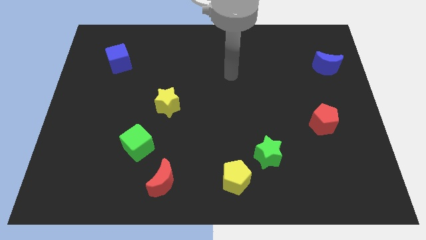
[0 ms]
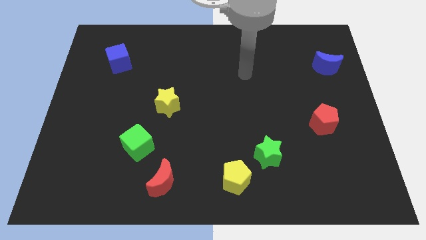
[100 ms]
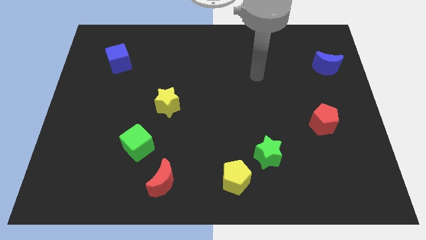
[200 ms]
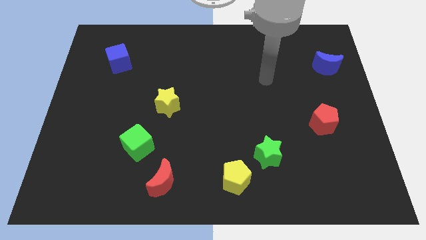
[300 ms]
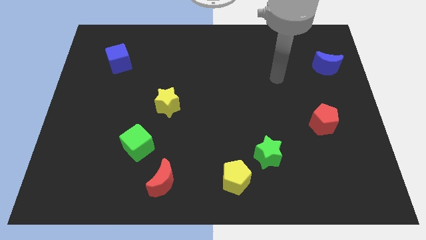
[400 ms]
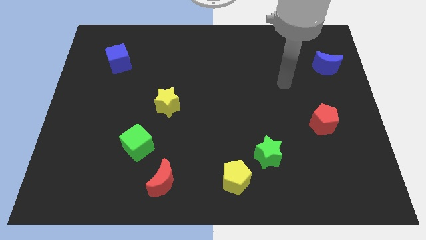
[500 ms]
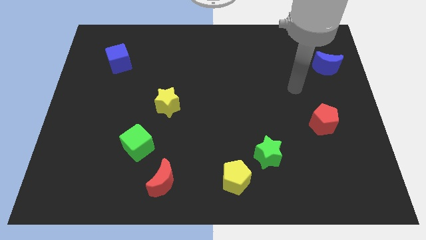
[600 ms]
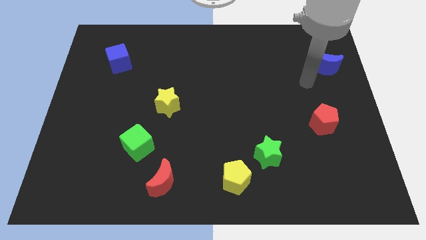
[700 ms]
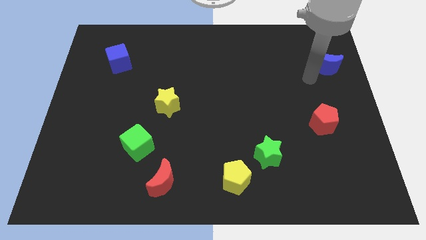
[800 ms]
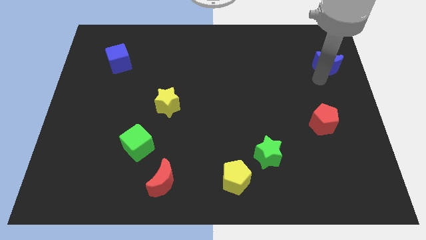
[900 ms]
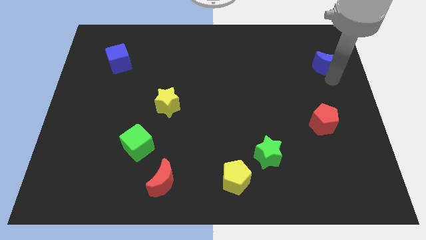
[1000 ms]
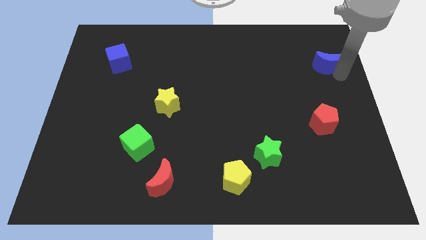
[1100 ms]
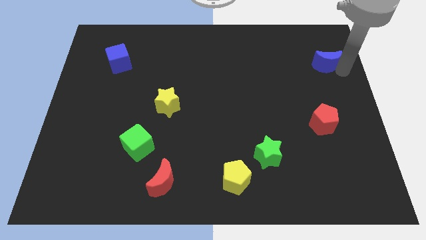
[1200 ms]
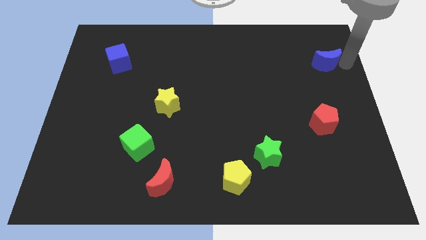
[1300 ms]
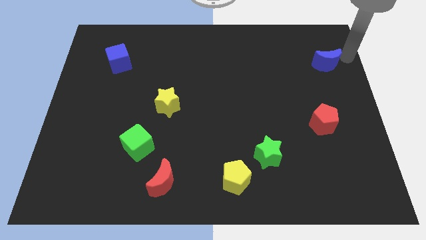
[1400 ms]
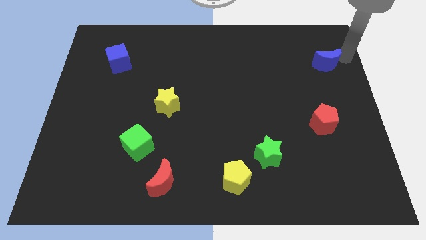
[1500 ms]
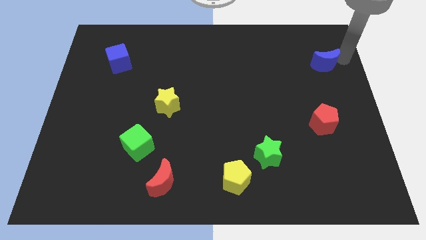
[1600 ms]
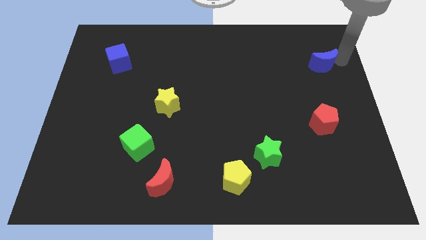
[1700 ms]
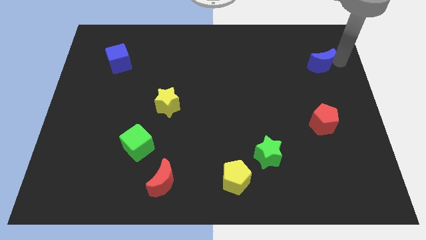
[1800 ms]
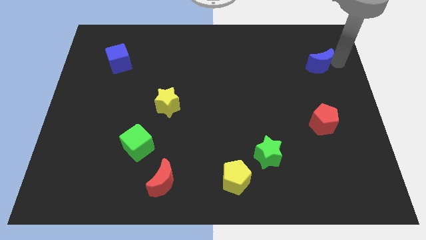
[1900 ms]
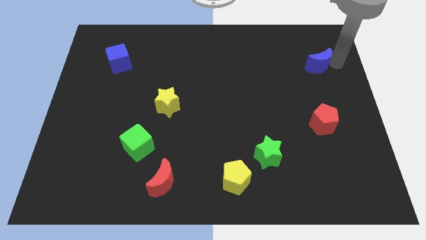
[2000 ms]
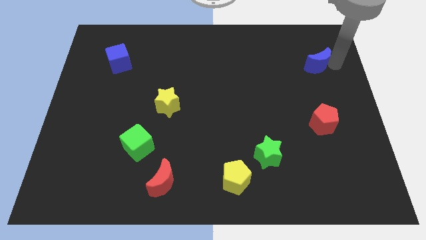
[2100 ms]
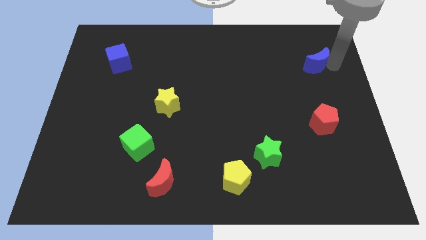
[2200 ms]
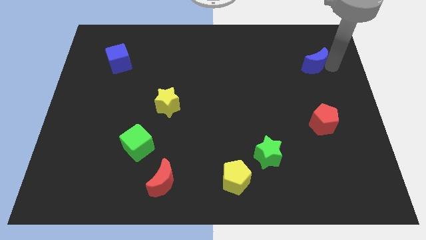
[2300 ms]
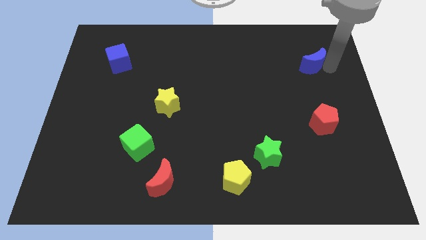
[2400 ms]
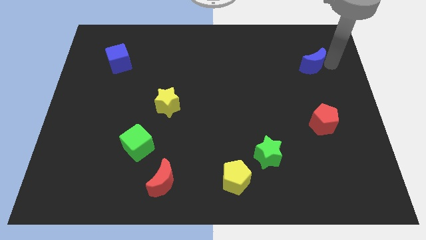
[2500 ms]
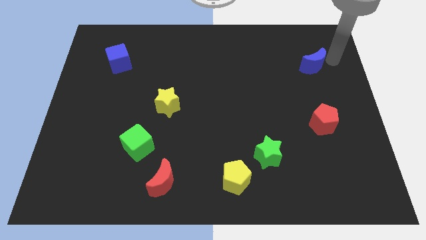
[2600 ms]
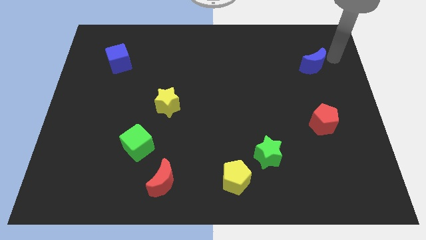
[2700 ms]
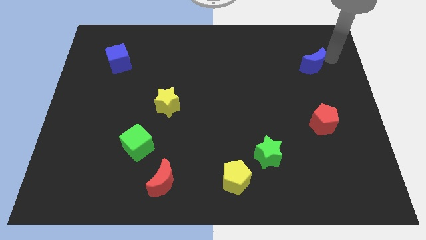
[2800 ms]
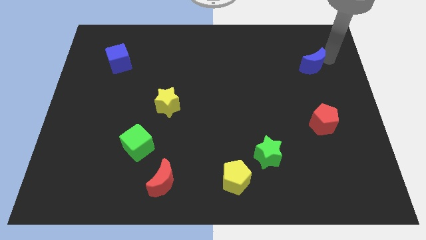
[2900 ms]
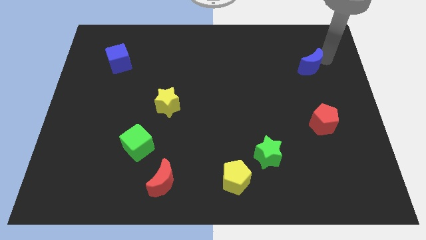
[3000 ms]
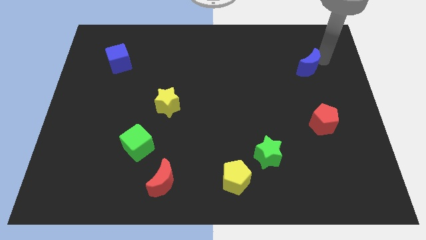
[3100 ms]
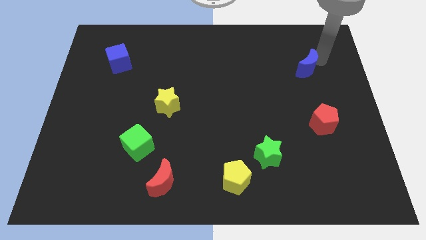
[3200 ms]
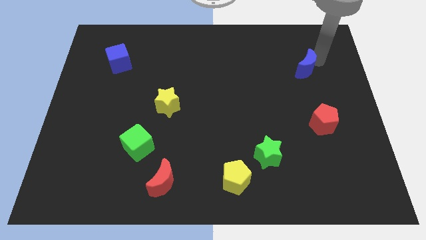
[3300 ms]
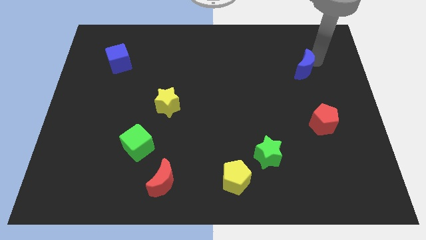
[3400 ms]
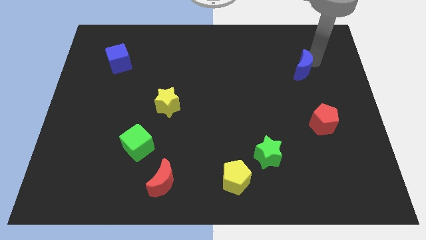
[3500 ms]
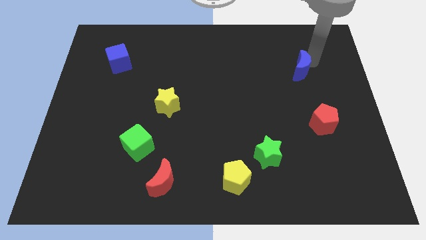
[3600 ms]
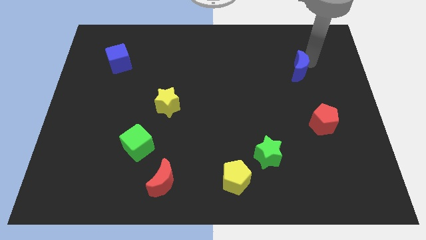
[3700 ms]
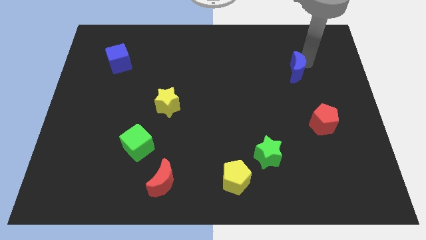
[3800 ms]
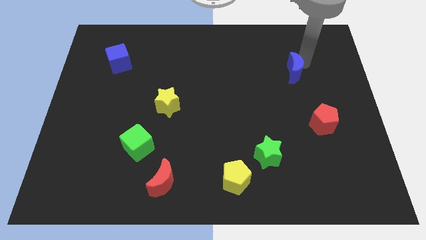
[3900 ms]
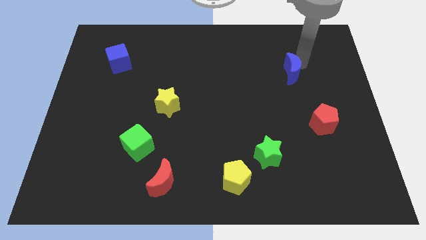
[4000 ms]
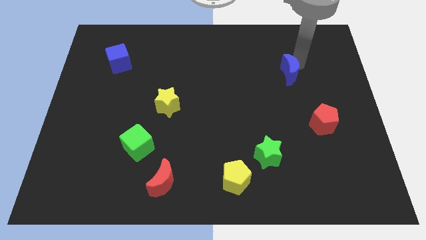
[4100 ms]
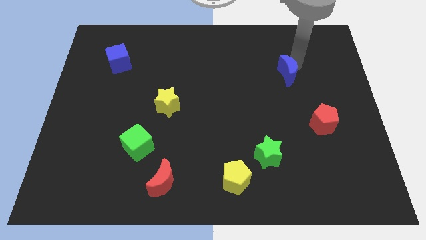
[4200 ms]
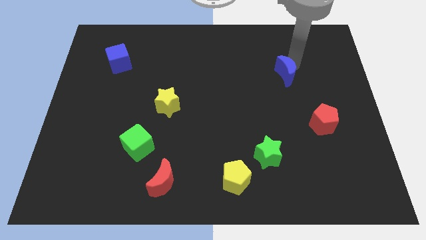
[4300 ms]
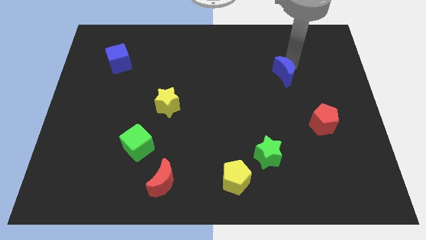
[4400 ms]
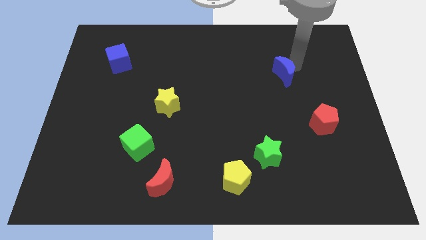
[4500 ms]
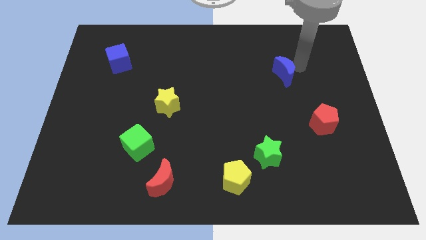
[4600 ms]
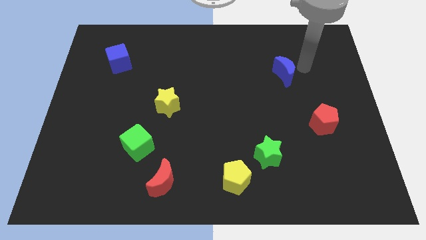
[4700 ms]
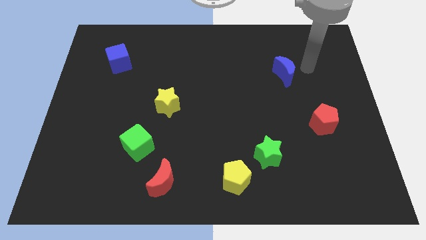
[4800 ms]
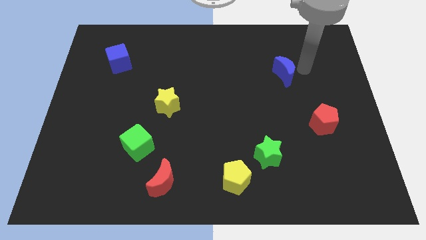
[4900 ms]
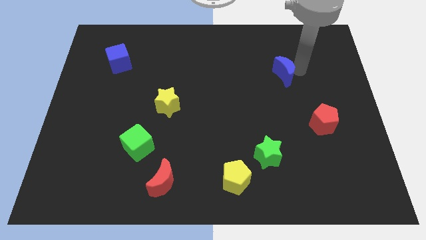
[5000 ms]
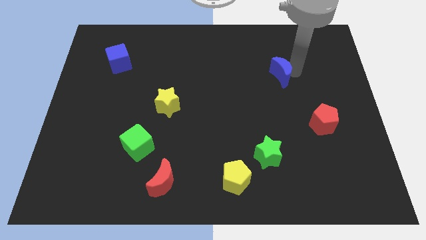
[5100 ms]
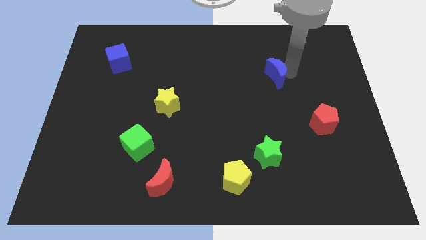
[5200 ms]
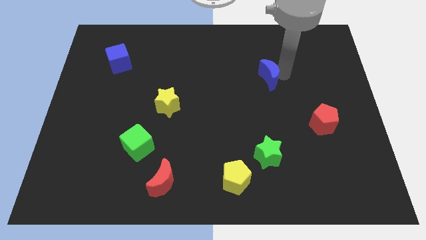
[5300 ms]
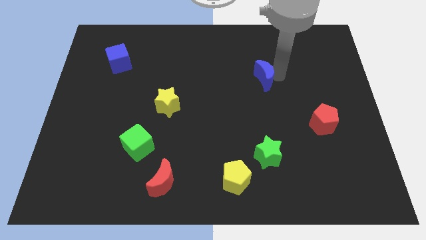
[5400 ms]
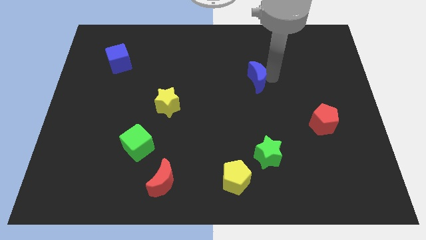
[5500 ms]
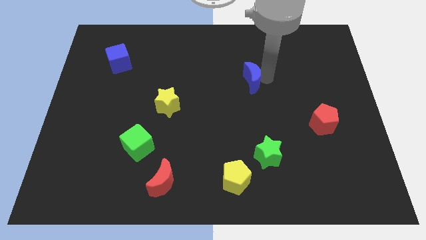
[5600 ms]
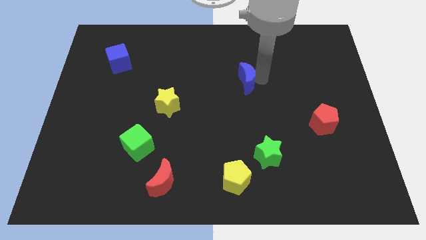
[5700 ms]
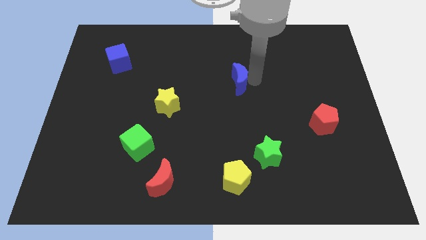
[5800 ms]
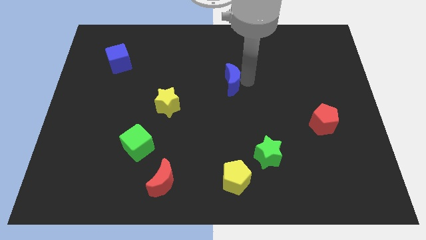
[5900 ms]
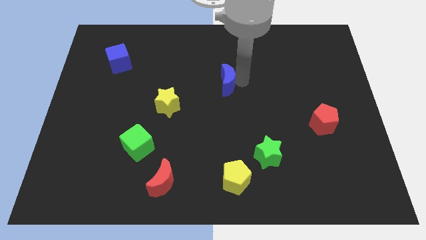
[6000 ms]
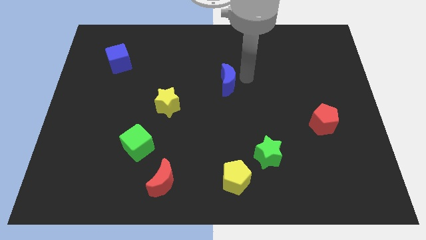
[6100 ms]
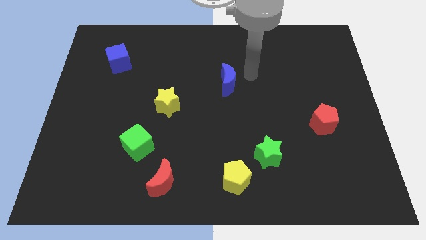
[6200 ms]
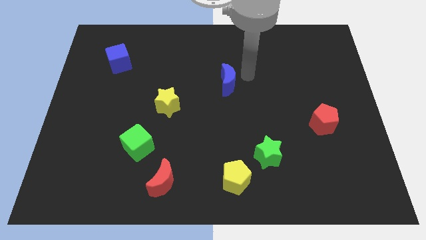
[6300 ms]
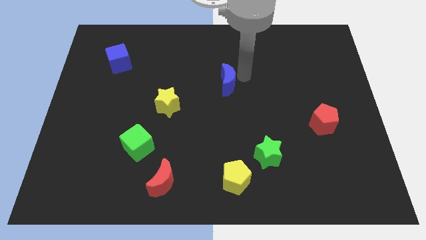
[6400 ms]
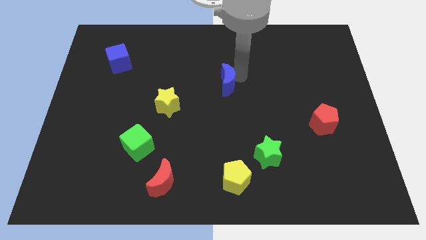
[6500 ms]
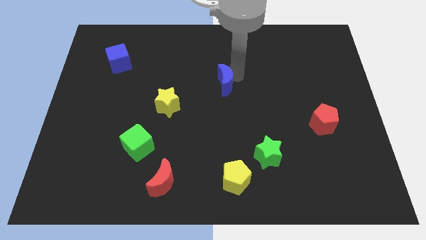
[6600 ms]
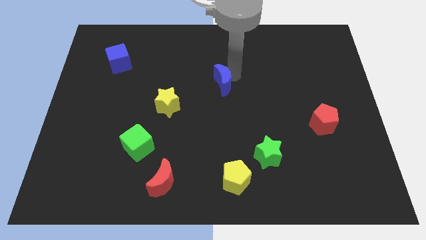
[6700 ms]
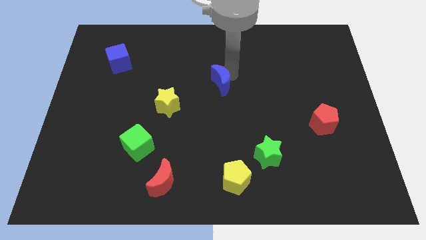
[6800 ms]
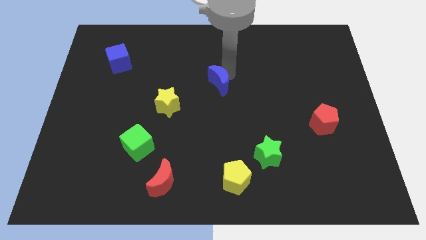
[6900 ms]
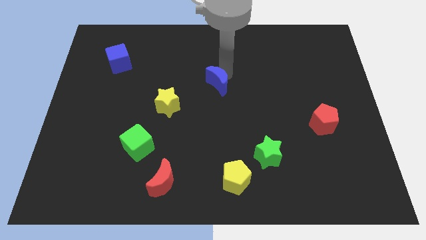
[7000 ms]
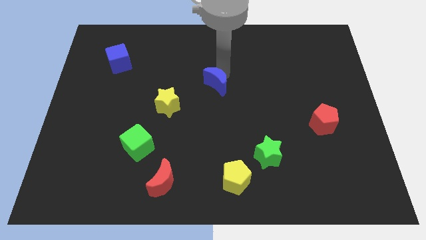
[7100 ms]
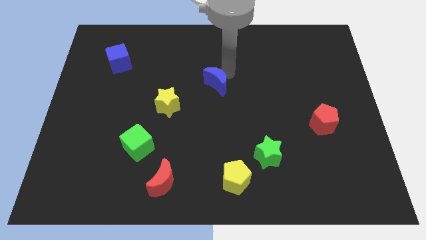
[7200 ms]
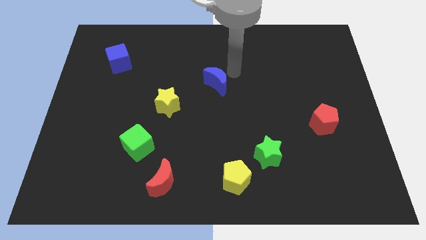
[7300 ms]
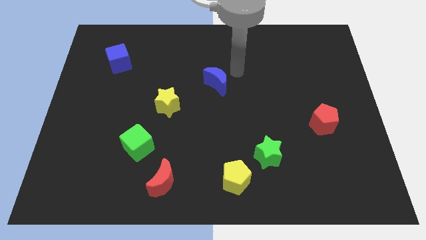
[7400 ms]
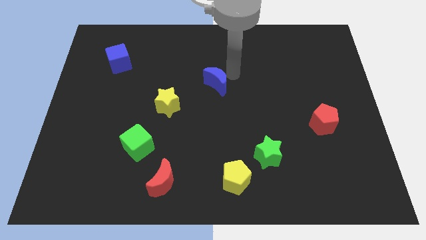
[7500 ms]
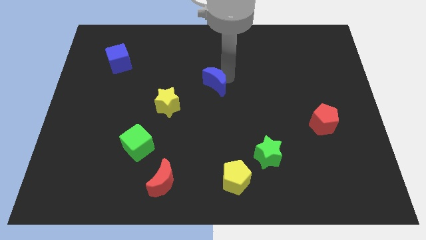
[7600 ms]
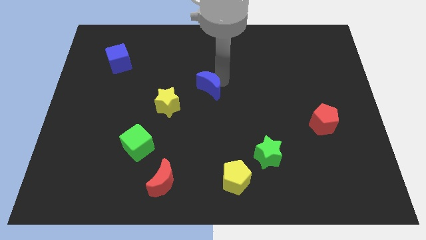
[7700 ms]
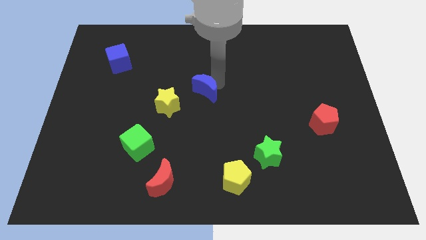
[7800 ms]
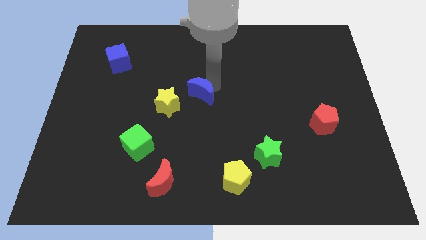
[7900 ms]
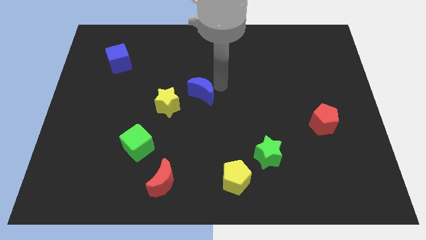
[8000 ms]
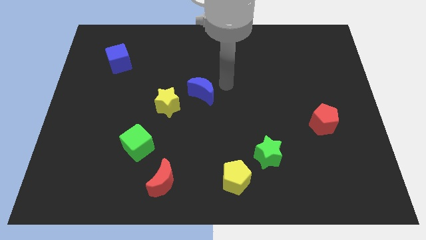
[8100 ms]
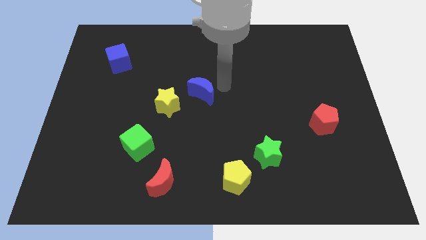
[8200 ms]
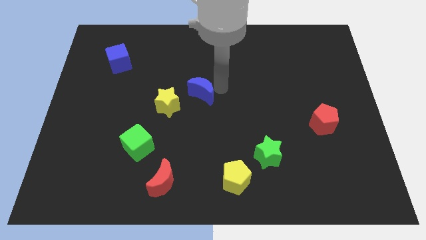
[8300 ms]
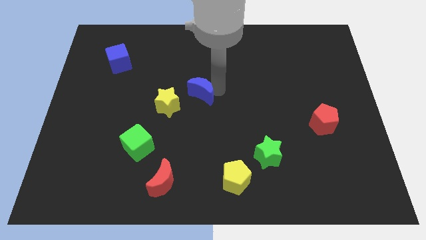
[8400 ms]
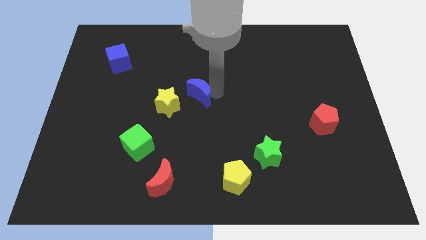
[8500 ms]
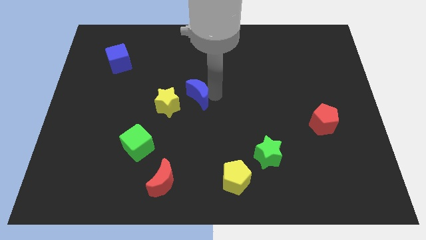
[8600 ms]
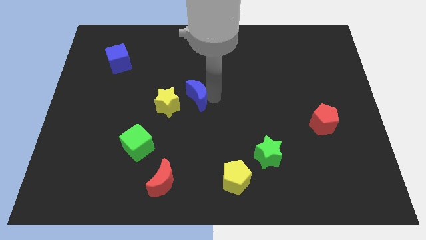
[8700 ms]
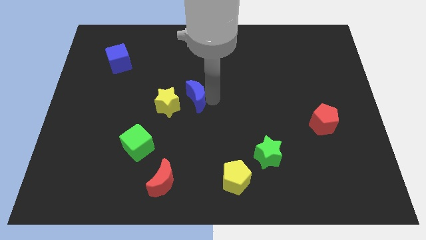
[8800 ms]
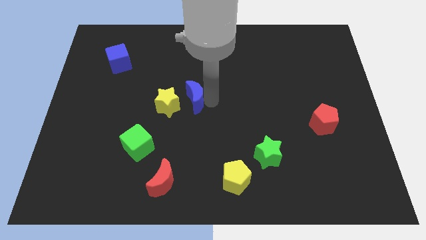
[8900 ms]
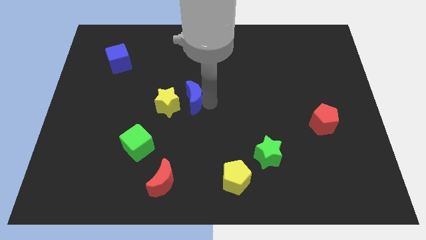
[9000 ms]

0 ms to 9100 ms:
move the blue moon close to the yellow star
